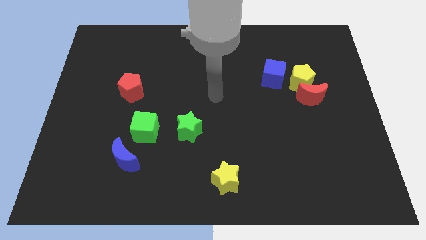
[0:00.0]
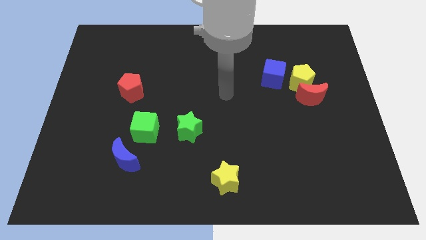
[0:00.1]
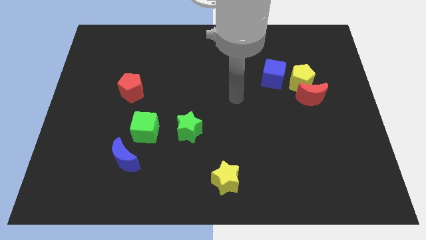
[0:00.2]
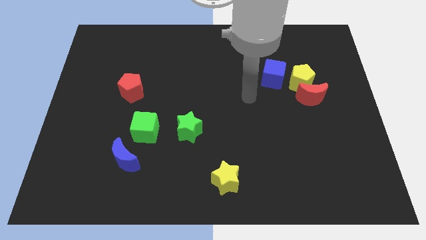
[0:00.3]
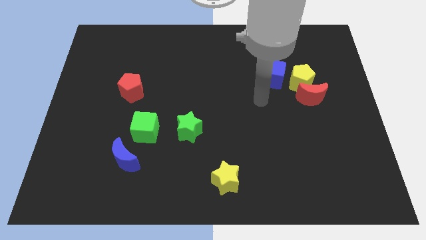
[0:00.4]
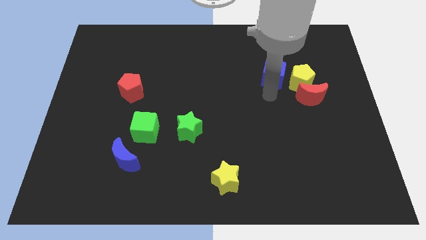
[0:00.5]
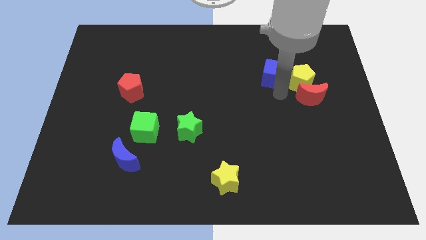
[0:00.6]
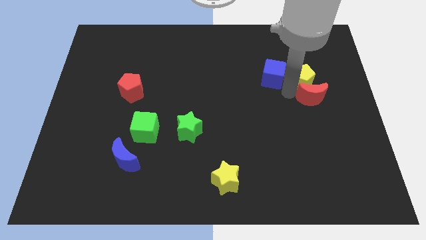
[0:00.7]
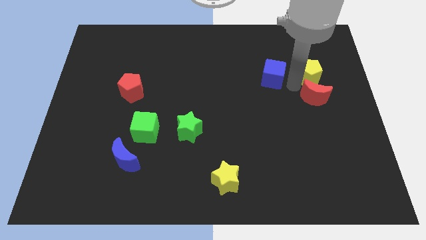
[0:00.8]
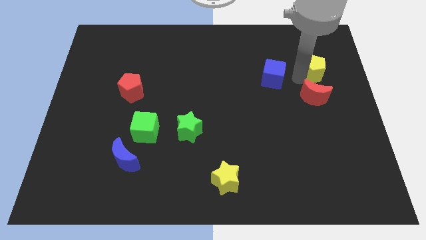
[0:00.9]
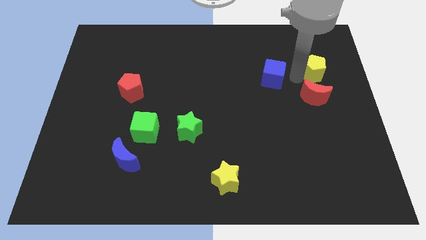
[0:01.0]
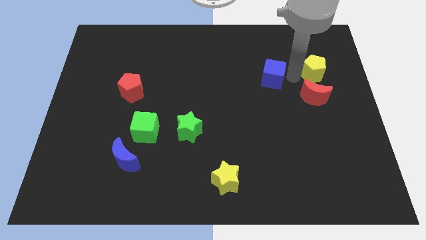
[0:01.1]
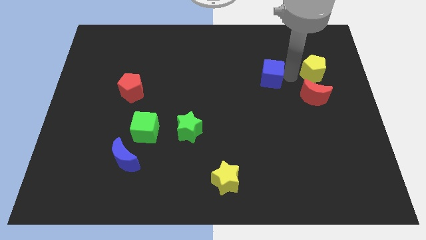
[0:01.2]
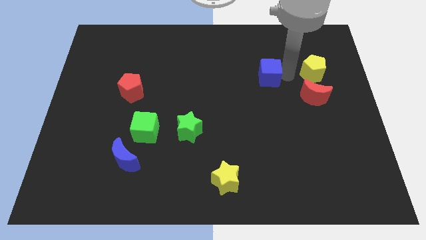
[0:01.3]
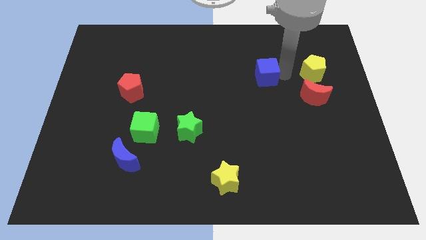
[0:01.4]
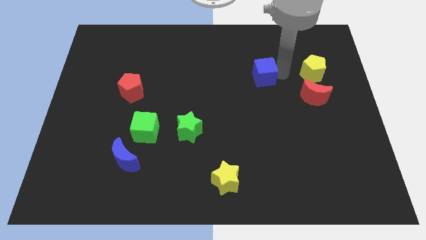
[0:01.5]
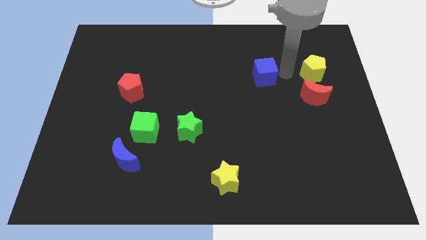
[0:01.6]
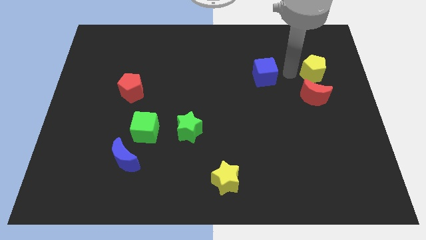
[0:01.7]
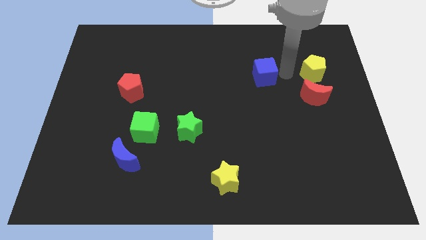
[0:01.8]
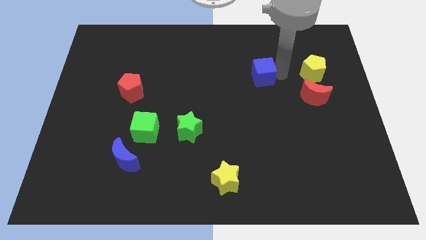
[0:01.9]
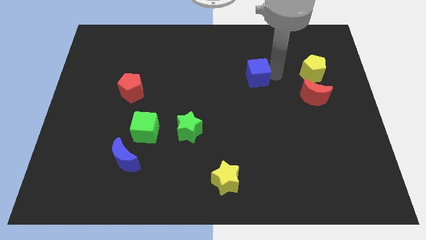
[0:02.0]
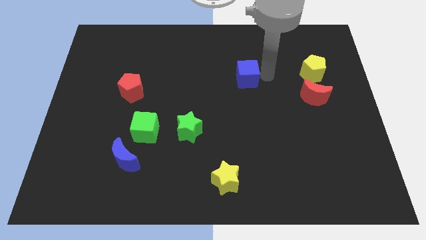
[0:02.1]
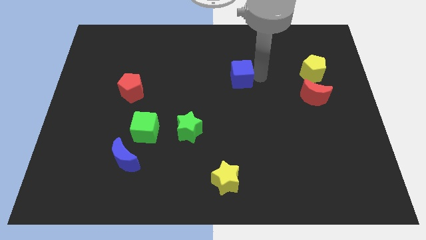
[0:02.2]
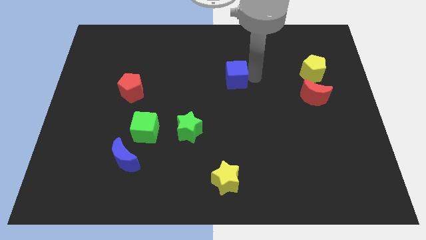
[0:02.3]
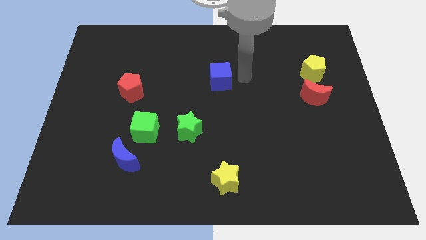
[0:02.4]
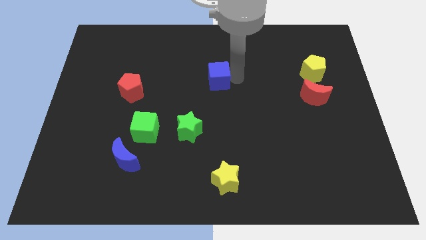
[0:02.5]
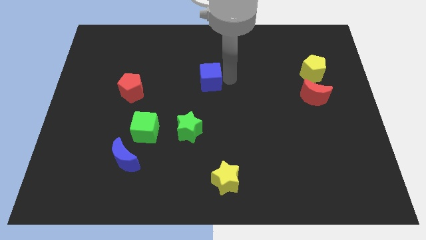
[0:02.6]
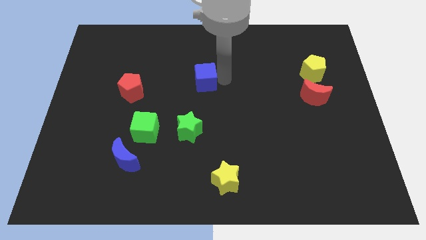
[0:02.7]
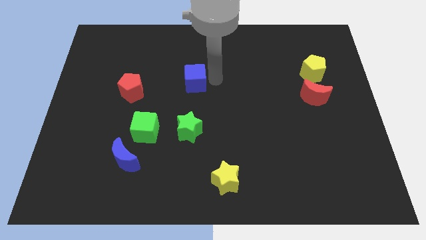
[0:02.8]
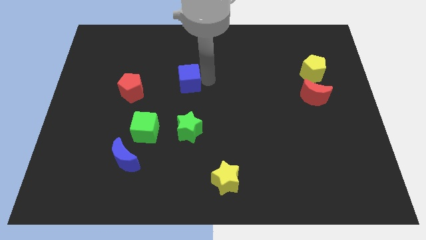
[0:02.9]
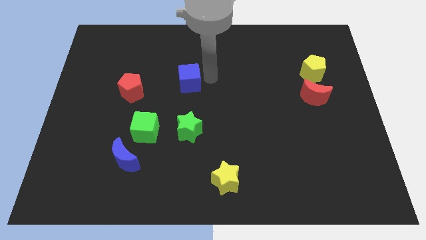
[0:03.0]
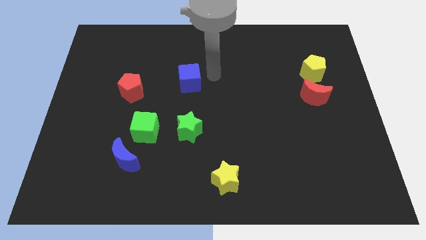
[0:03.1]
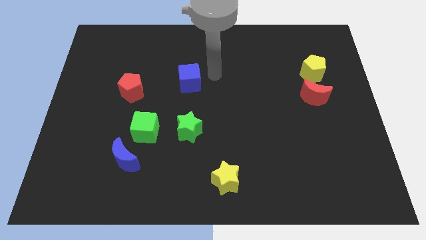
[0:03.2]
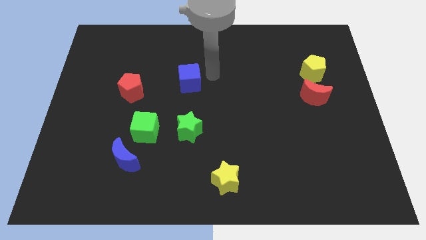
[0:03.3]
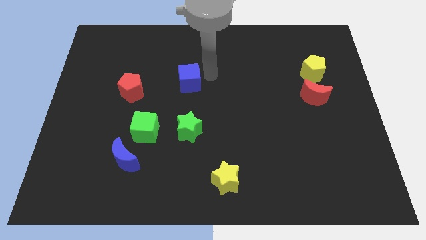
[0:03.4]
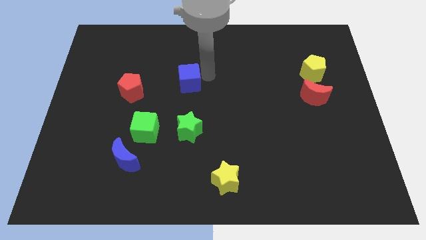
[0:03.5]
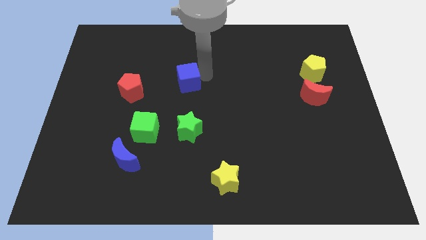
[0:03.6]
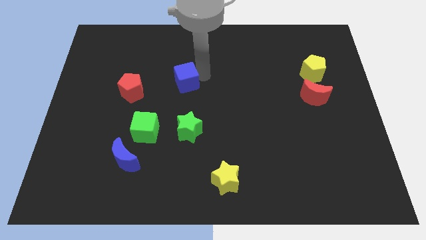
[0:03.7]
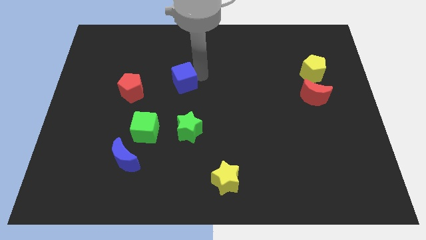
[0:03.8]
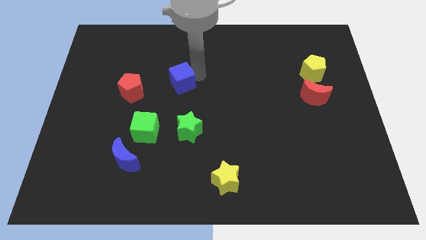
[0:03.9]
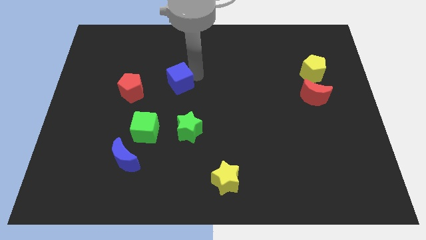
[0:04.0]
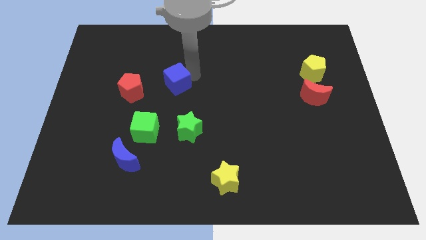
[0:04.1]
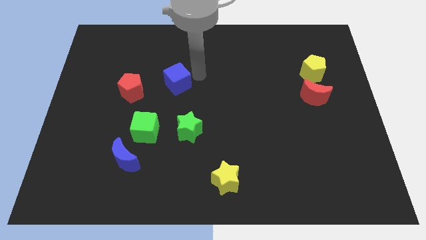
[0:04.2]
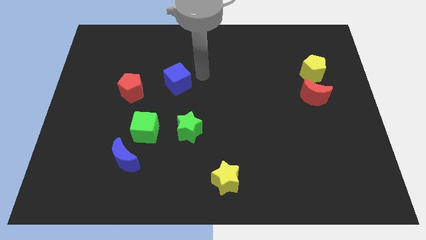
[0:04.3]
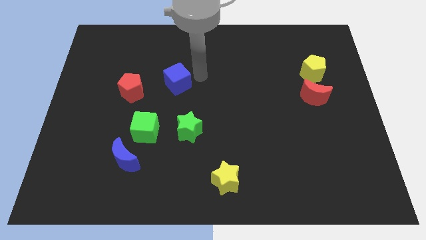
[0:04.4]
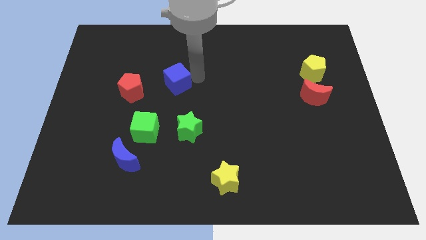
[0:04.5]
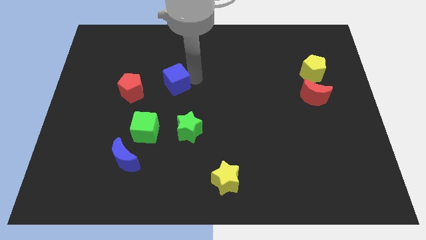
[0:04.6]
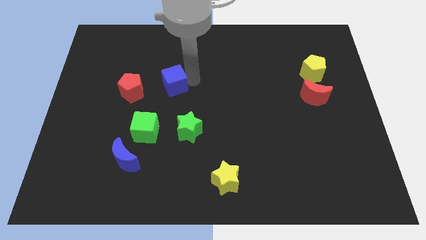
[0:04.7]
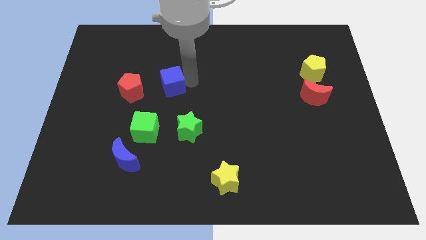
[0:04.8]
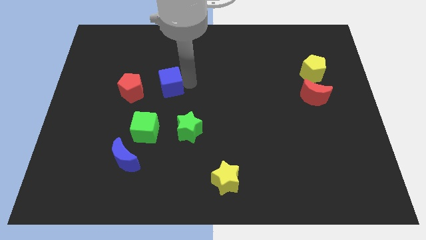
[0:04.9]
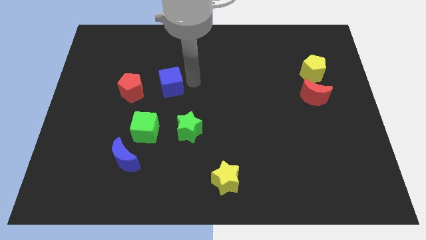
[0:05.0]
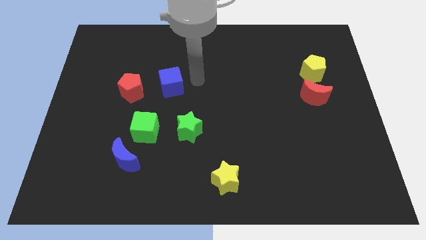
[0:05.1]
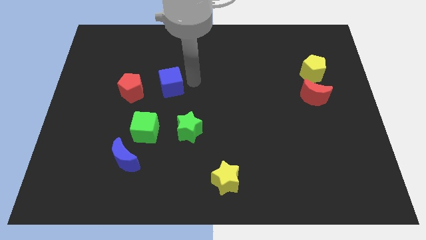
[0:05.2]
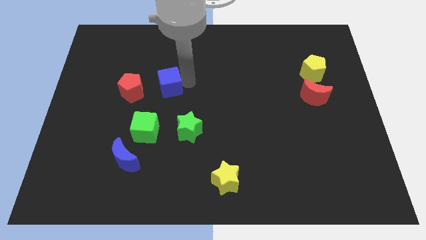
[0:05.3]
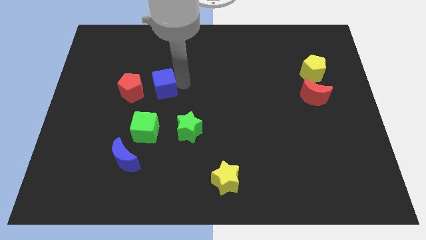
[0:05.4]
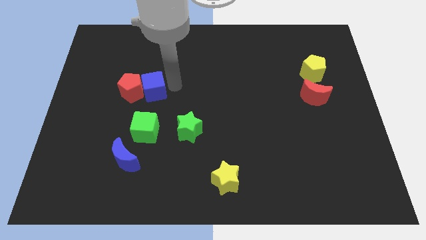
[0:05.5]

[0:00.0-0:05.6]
slide the blue cube close to the red pentagon

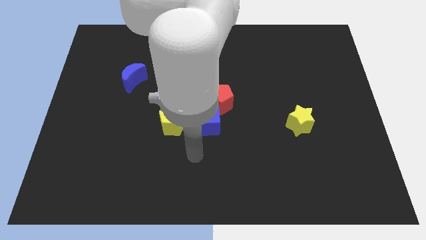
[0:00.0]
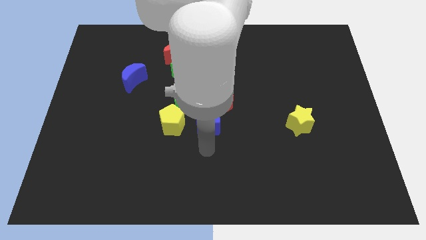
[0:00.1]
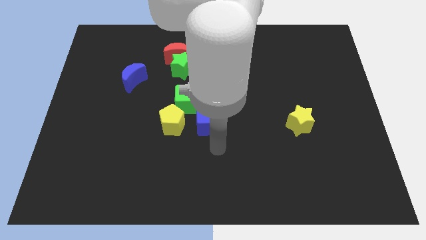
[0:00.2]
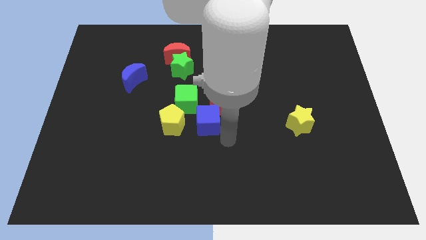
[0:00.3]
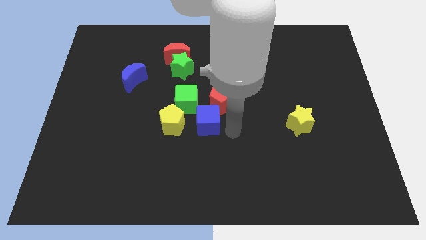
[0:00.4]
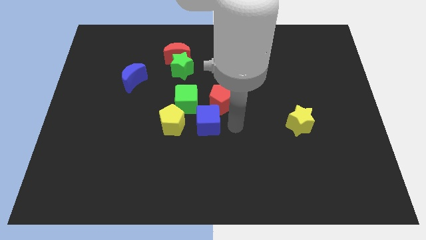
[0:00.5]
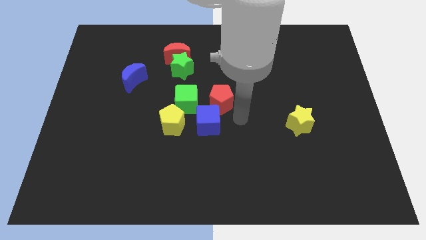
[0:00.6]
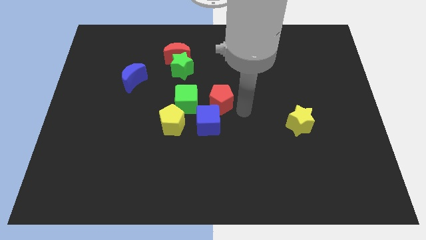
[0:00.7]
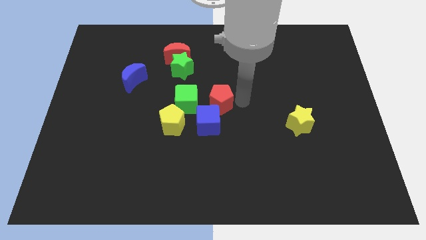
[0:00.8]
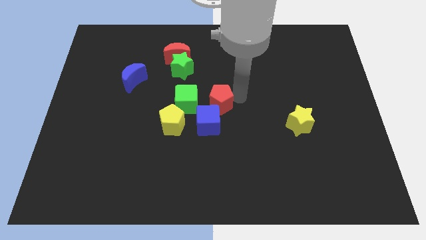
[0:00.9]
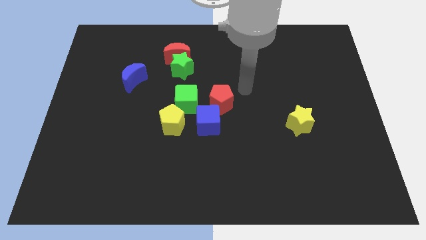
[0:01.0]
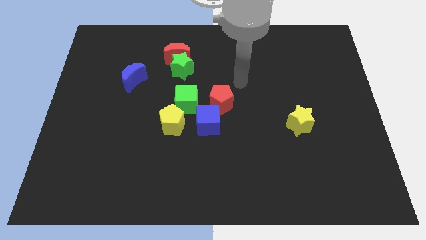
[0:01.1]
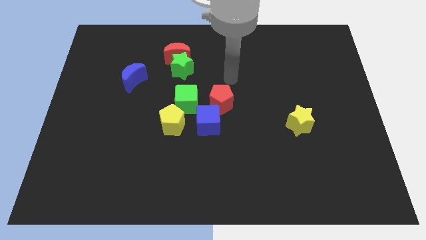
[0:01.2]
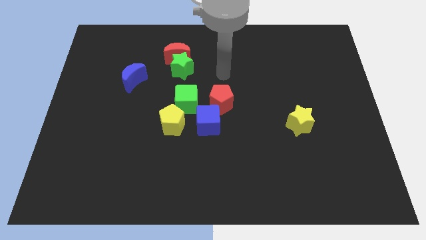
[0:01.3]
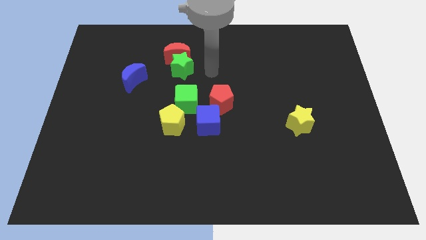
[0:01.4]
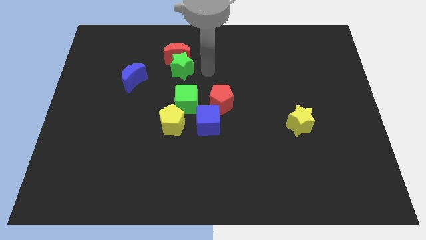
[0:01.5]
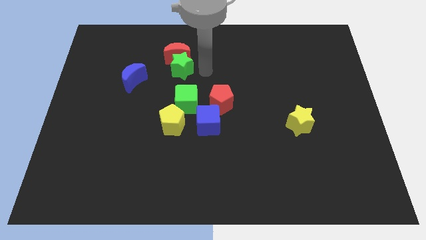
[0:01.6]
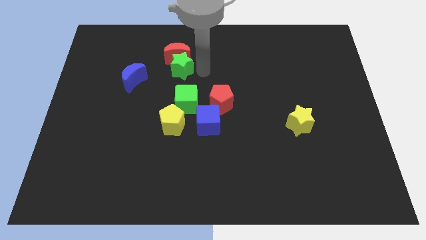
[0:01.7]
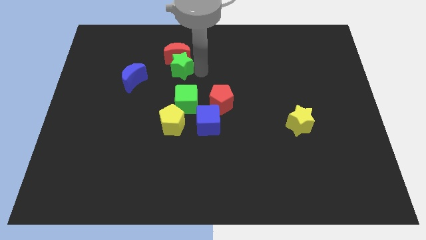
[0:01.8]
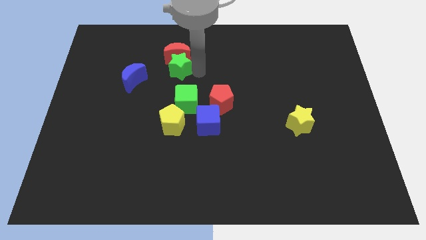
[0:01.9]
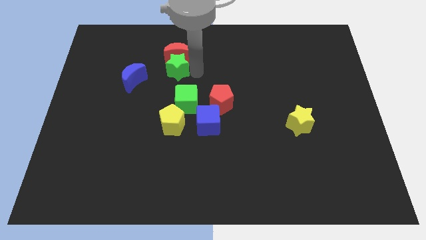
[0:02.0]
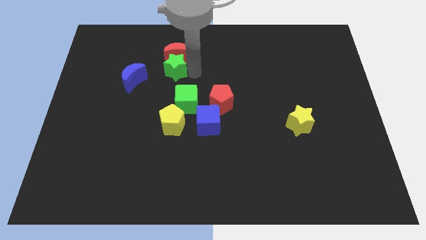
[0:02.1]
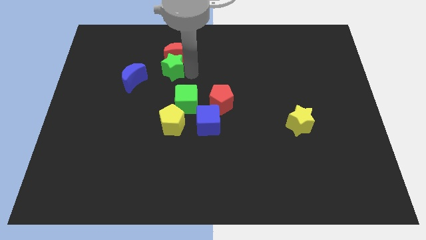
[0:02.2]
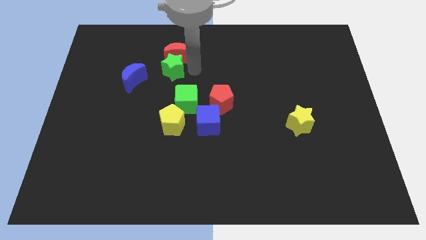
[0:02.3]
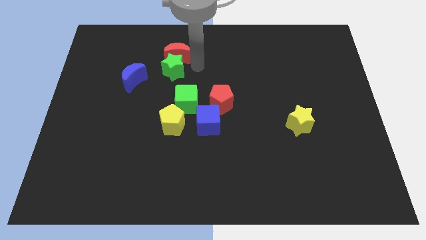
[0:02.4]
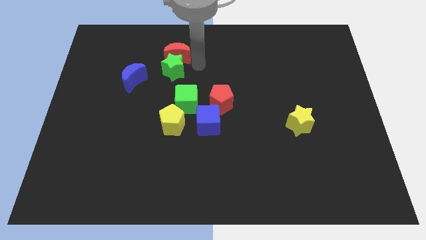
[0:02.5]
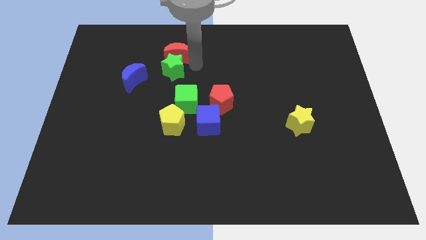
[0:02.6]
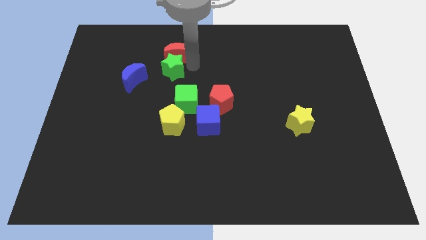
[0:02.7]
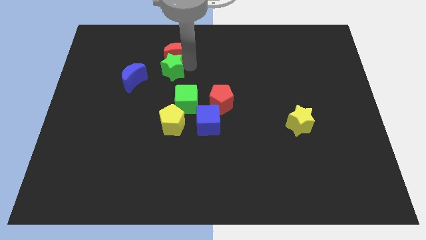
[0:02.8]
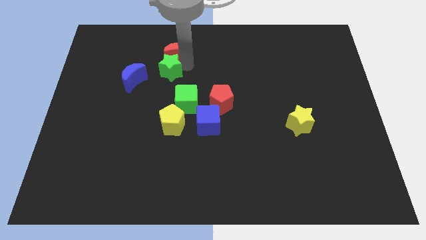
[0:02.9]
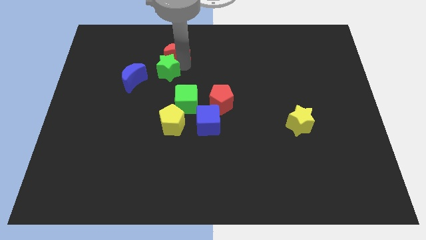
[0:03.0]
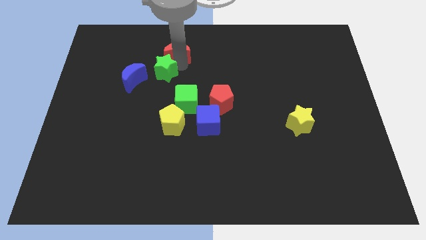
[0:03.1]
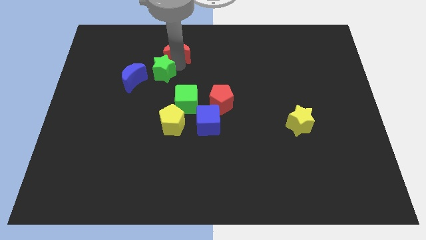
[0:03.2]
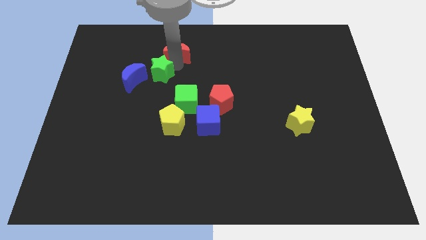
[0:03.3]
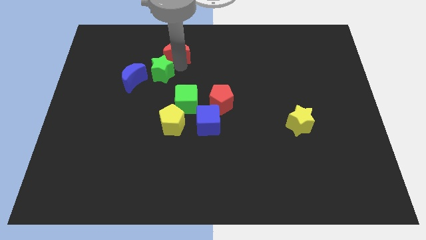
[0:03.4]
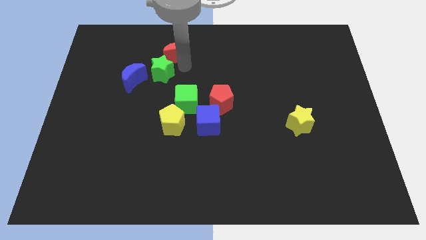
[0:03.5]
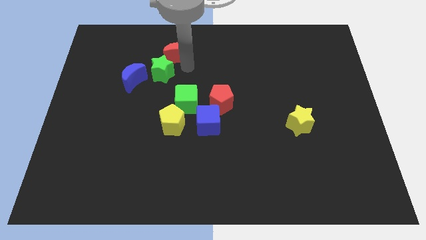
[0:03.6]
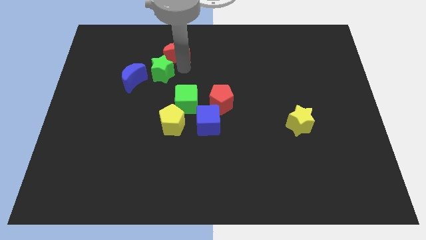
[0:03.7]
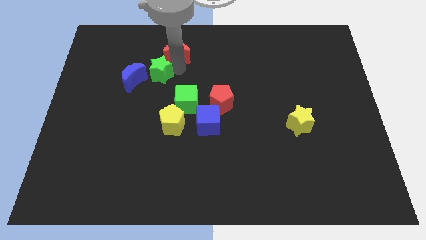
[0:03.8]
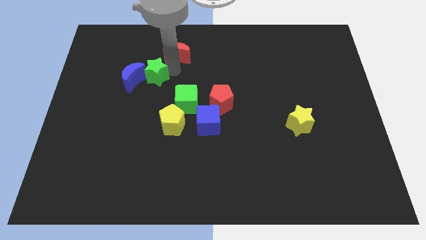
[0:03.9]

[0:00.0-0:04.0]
move the green star towards the blue moon
